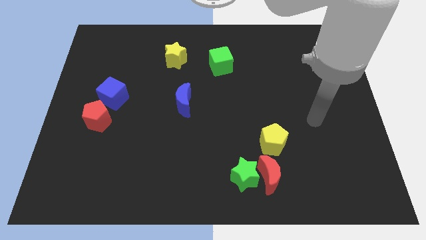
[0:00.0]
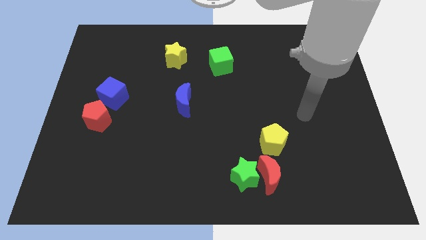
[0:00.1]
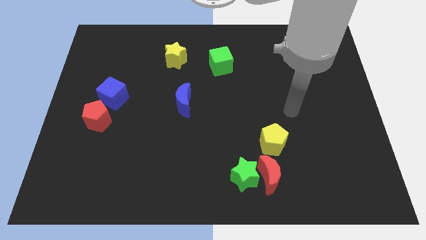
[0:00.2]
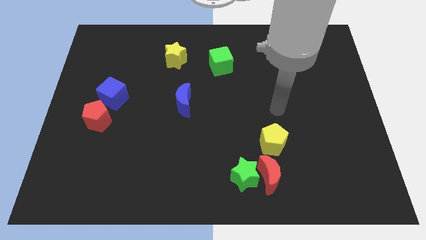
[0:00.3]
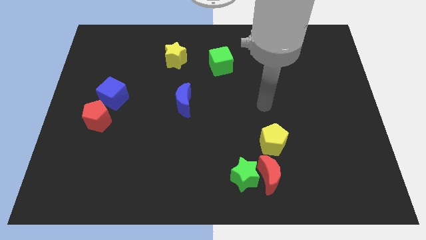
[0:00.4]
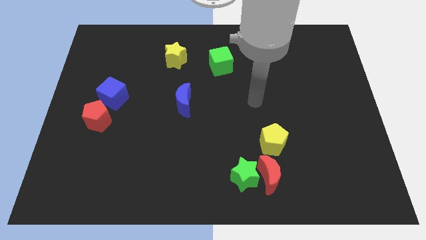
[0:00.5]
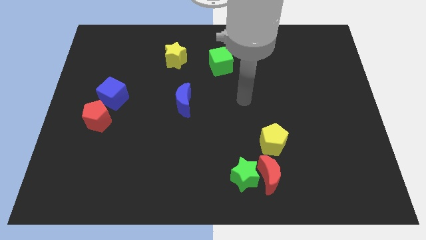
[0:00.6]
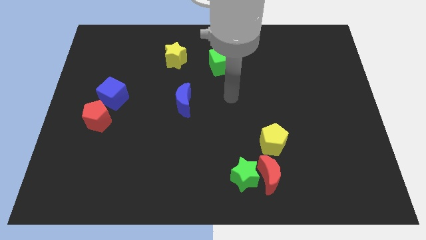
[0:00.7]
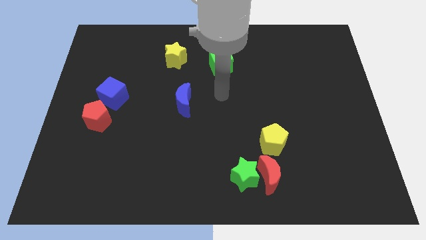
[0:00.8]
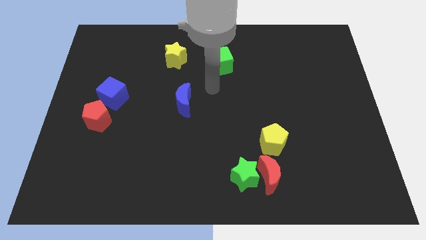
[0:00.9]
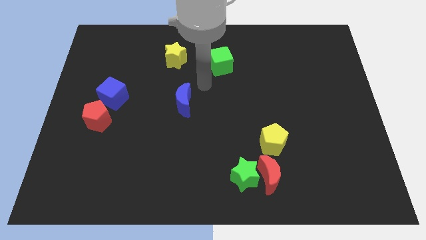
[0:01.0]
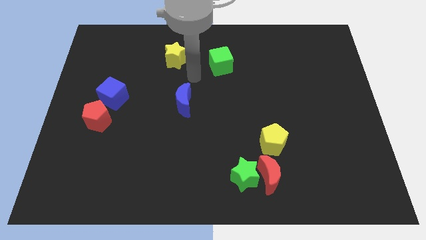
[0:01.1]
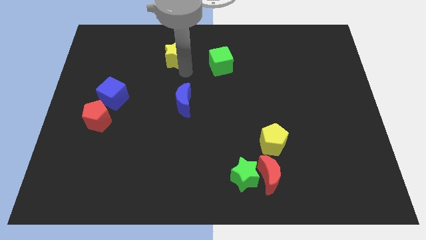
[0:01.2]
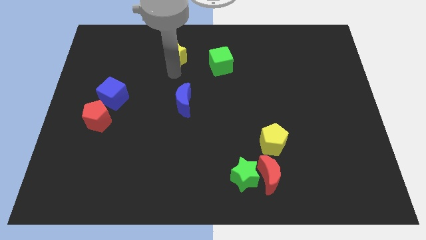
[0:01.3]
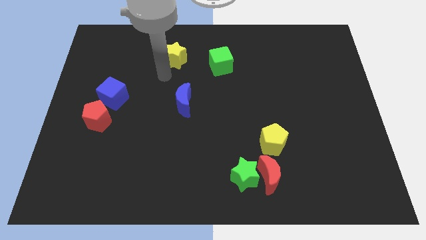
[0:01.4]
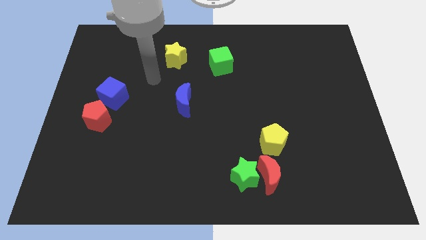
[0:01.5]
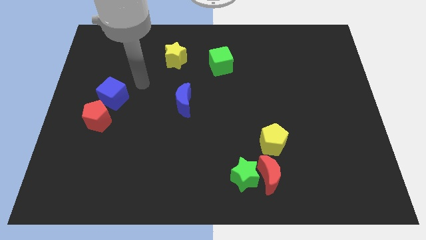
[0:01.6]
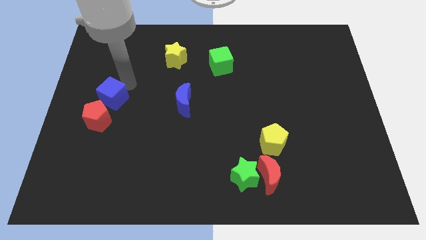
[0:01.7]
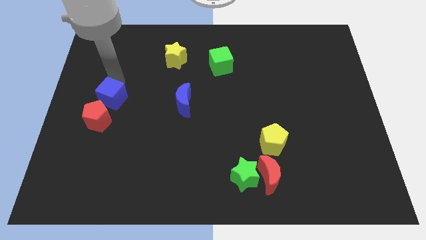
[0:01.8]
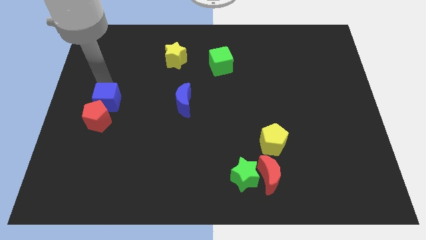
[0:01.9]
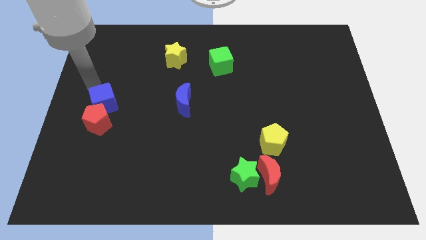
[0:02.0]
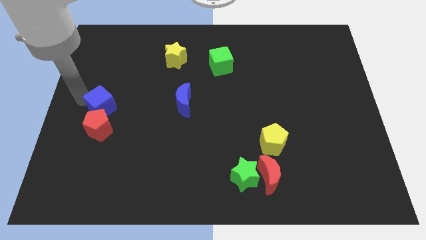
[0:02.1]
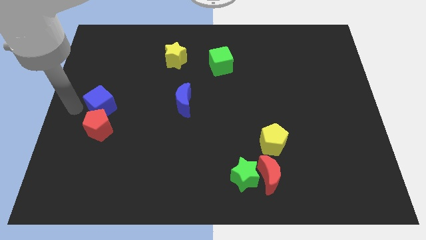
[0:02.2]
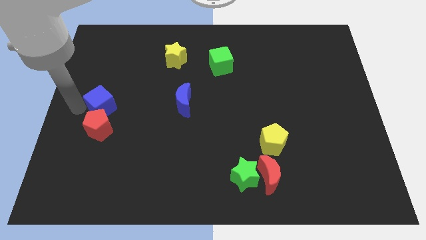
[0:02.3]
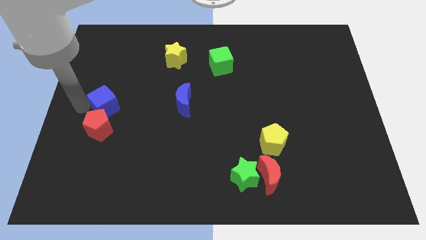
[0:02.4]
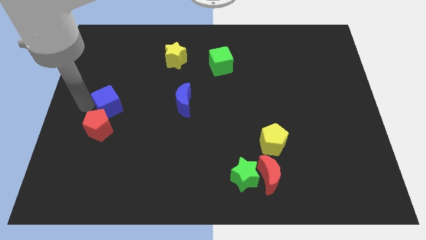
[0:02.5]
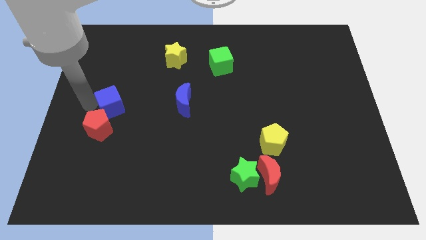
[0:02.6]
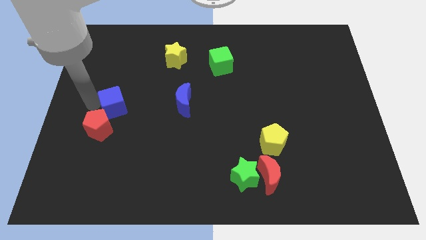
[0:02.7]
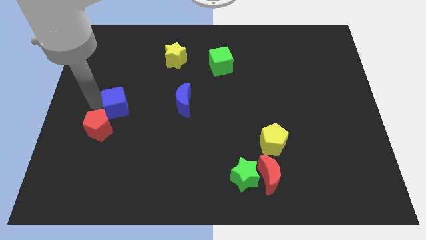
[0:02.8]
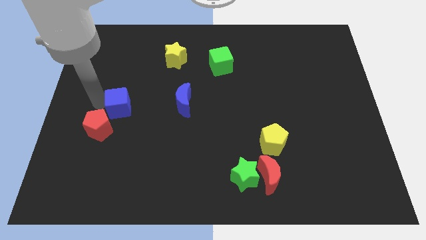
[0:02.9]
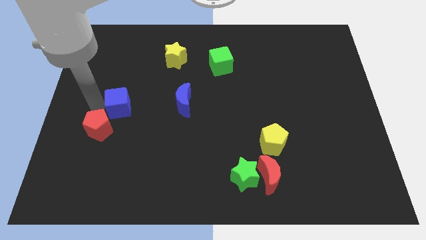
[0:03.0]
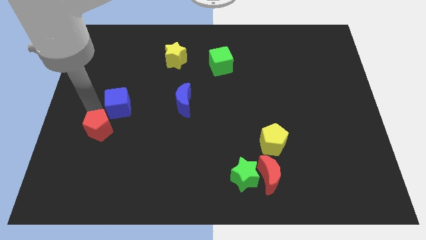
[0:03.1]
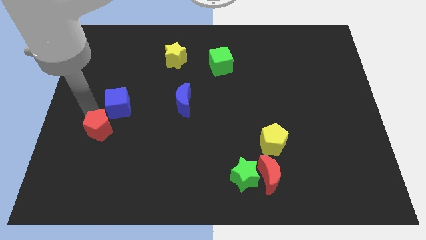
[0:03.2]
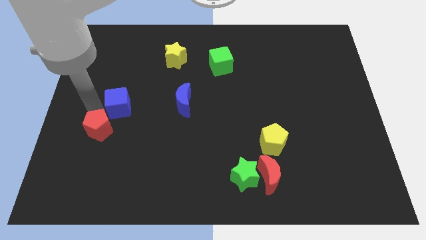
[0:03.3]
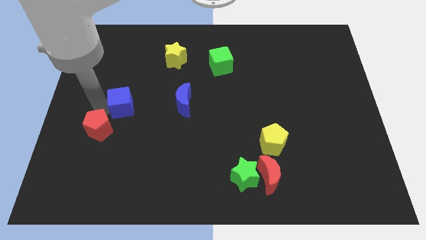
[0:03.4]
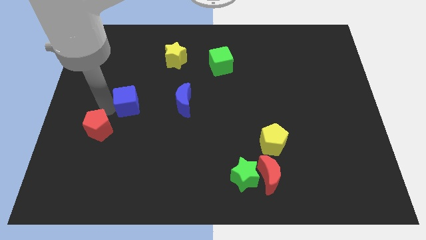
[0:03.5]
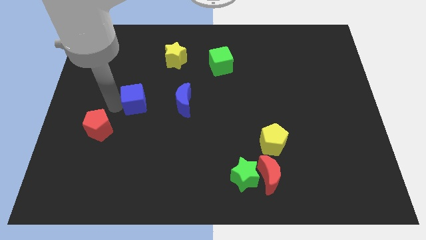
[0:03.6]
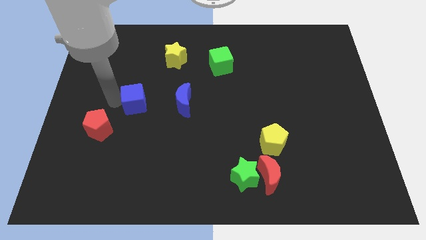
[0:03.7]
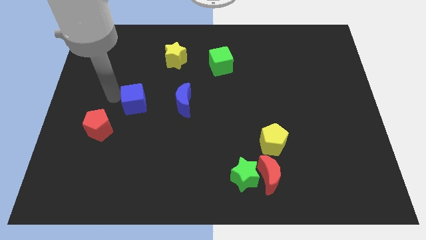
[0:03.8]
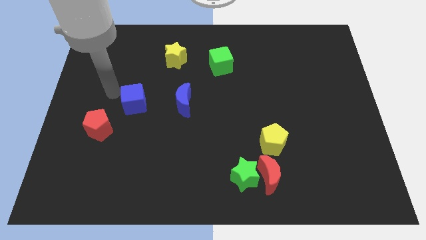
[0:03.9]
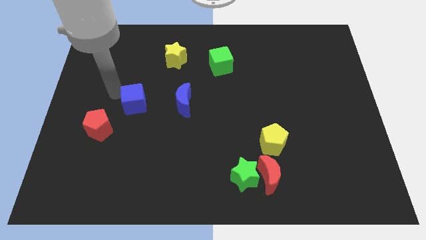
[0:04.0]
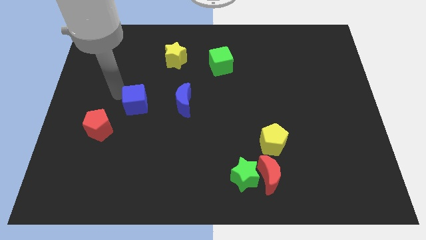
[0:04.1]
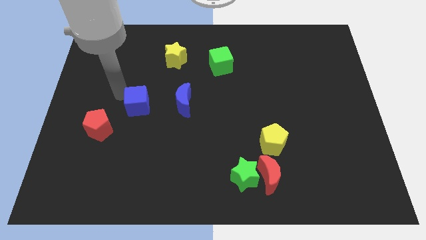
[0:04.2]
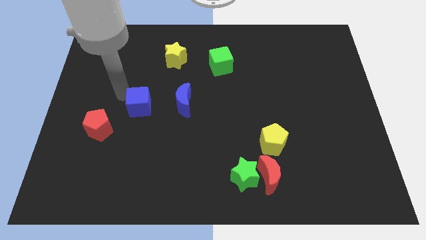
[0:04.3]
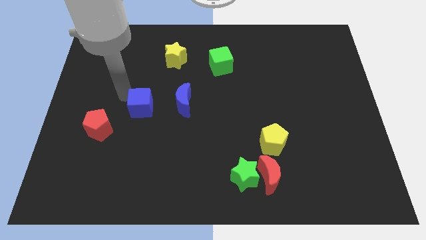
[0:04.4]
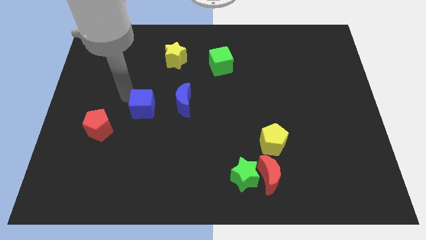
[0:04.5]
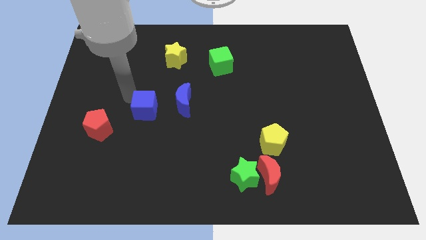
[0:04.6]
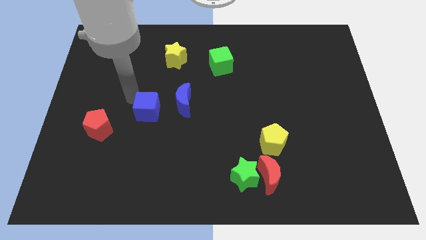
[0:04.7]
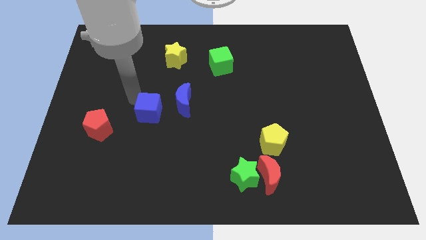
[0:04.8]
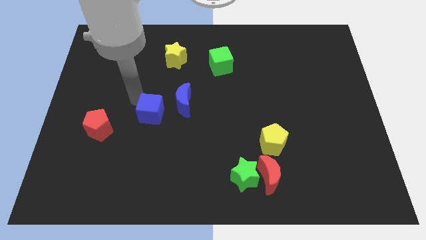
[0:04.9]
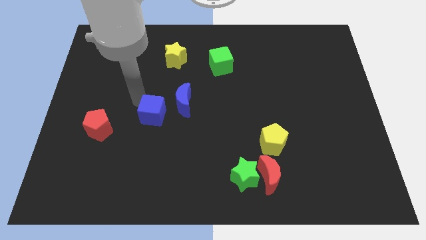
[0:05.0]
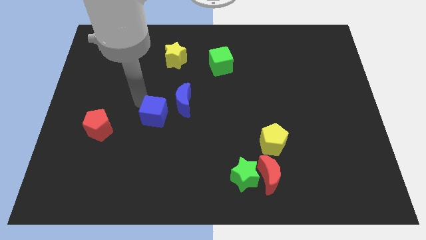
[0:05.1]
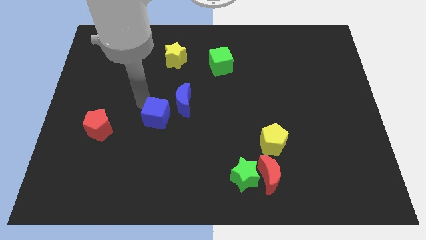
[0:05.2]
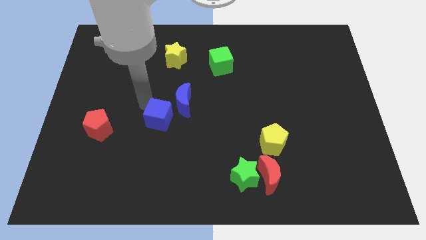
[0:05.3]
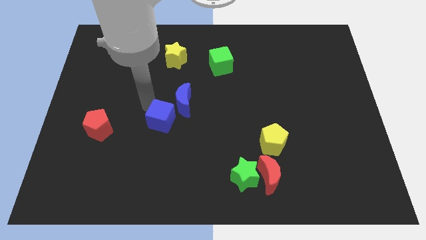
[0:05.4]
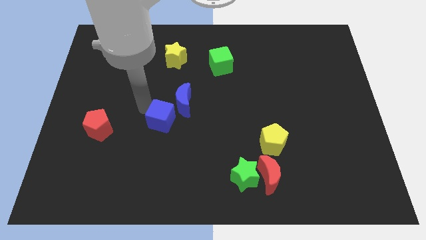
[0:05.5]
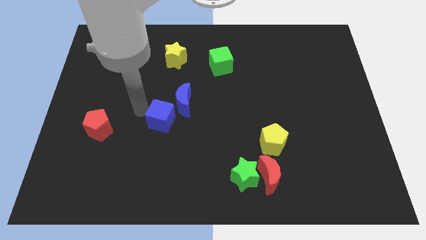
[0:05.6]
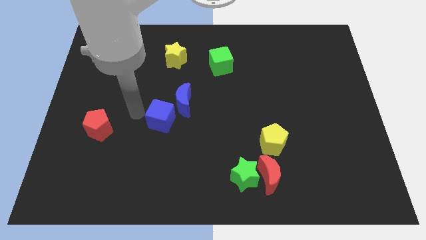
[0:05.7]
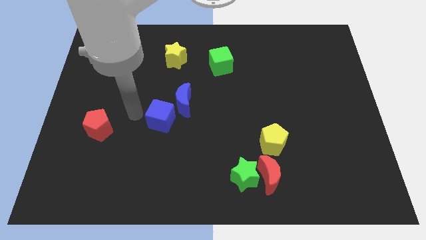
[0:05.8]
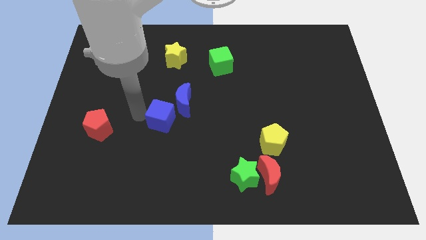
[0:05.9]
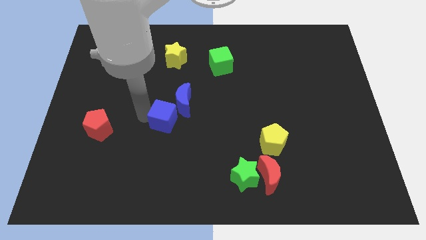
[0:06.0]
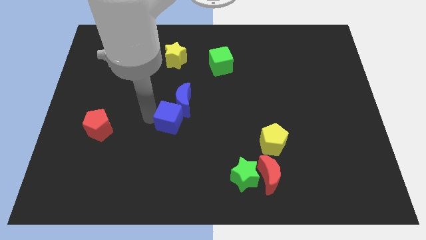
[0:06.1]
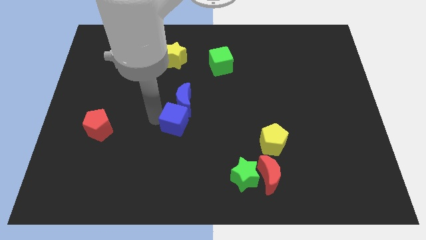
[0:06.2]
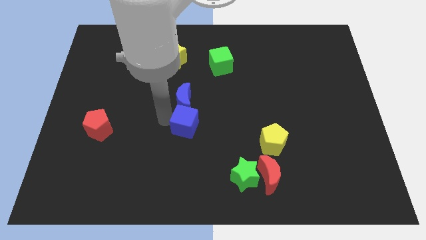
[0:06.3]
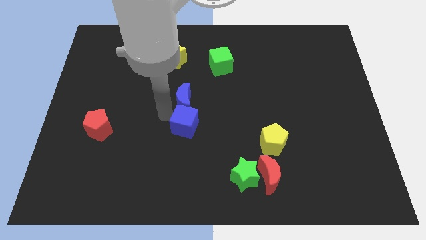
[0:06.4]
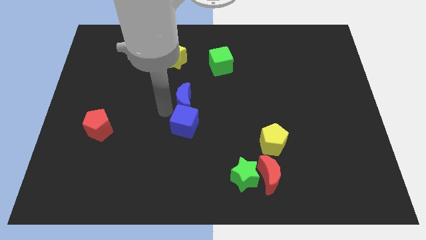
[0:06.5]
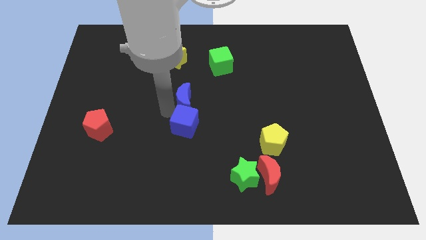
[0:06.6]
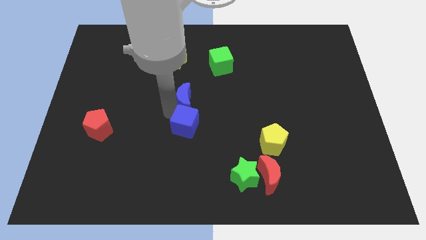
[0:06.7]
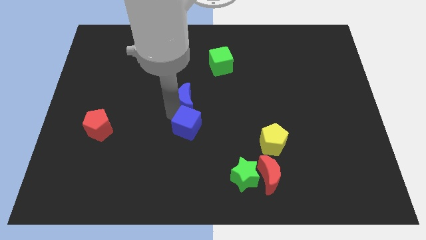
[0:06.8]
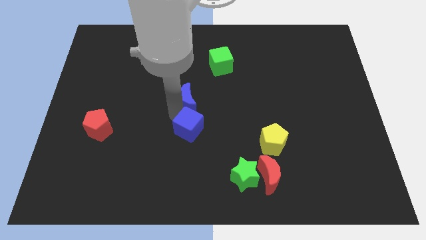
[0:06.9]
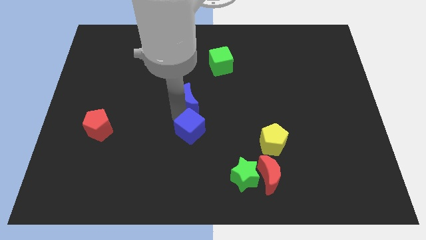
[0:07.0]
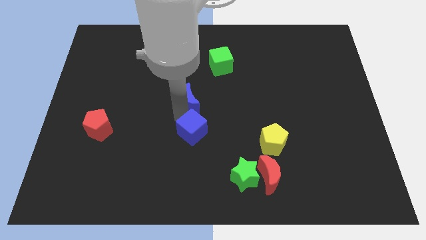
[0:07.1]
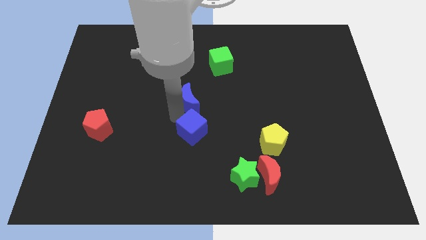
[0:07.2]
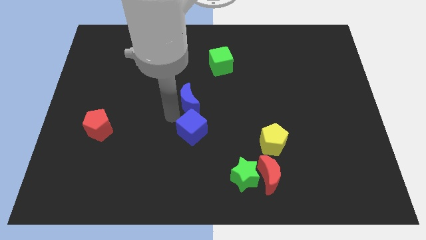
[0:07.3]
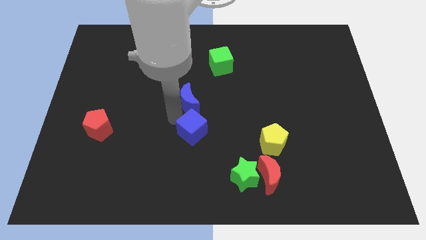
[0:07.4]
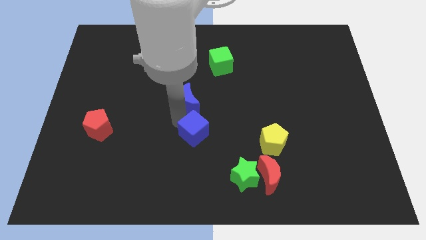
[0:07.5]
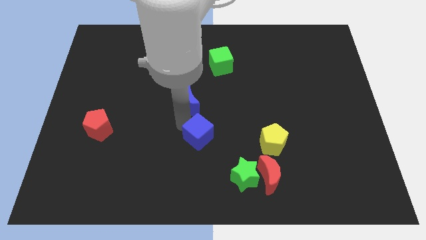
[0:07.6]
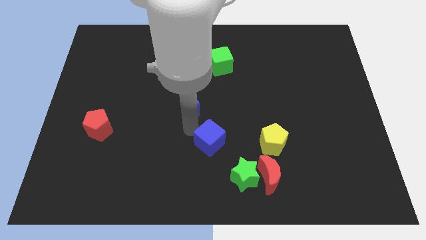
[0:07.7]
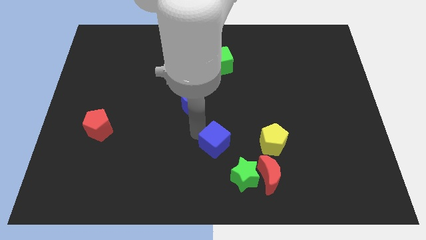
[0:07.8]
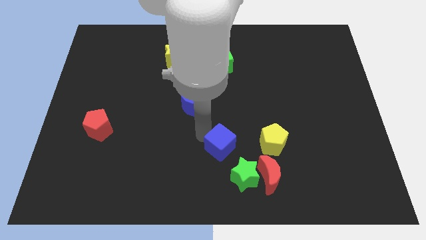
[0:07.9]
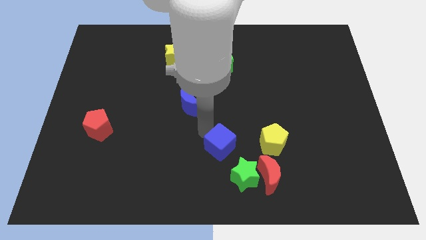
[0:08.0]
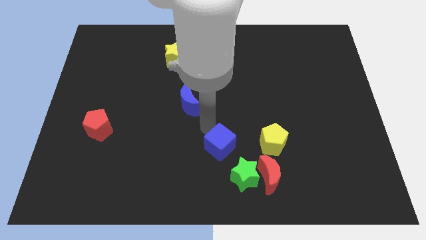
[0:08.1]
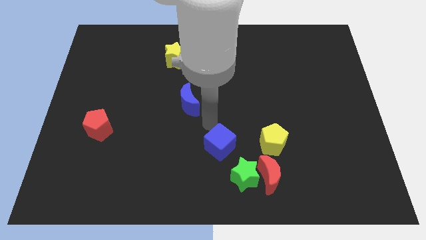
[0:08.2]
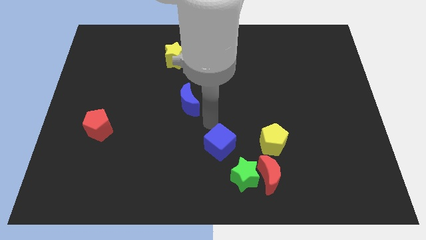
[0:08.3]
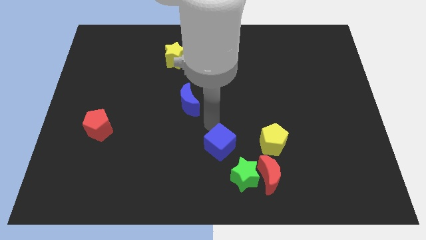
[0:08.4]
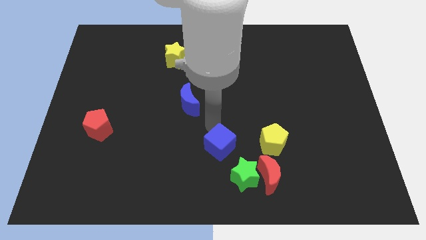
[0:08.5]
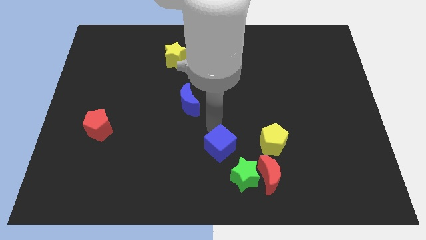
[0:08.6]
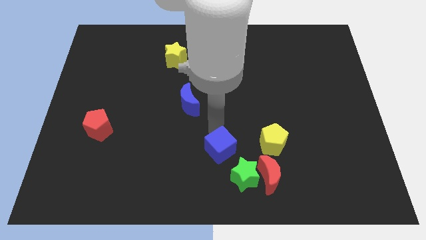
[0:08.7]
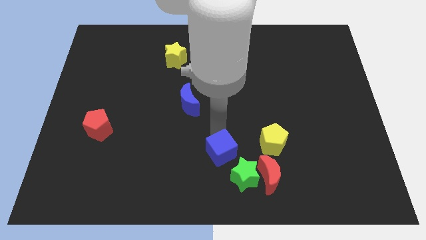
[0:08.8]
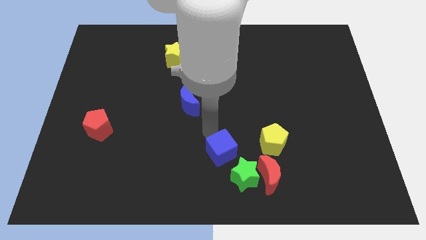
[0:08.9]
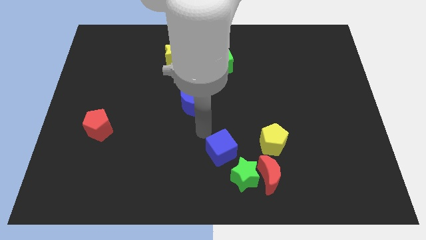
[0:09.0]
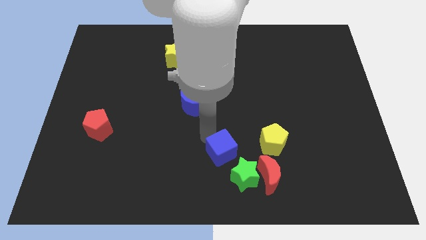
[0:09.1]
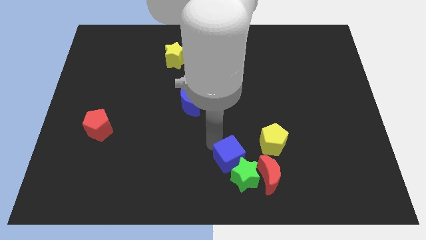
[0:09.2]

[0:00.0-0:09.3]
slide the blue cube to the green star
